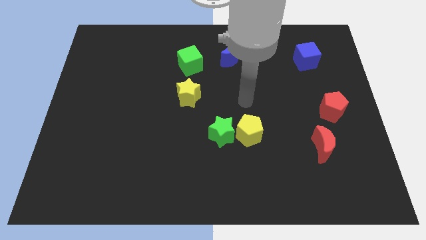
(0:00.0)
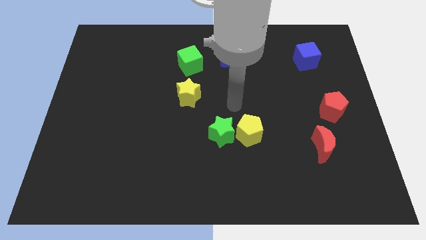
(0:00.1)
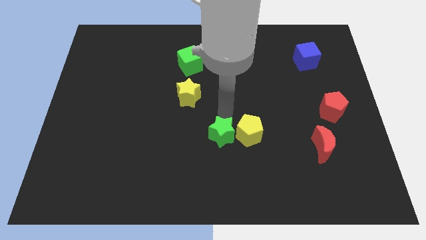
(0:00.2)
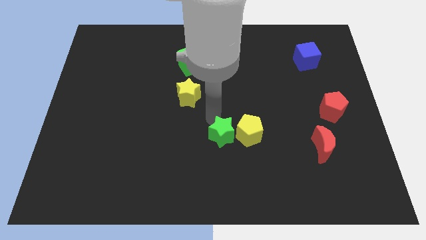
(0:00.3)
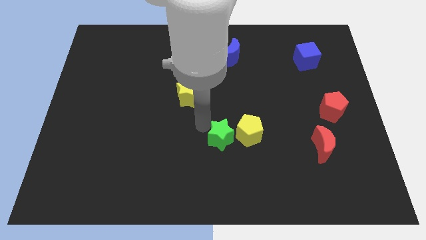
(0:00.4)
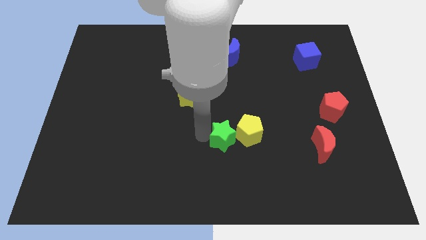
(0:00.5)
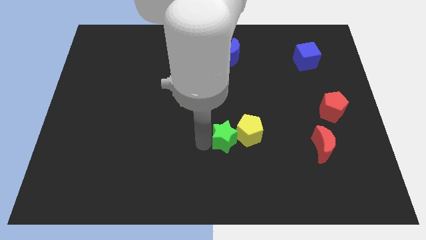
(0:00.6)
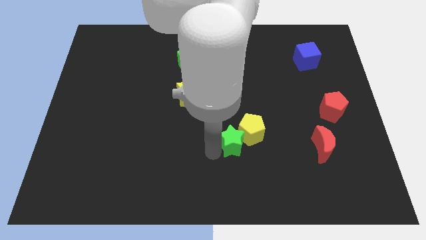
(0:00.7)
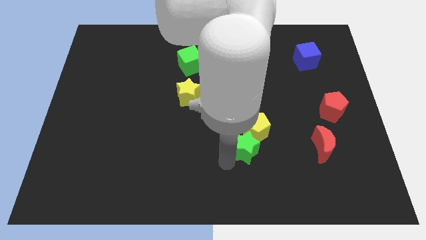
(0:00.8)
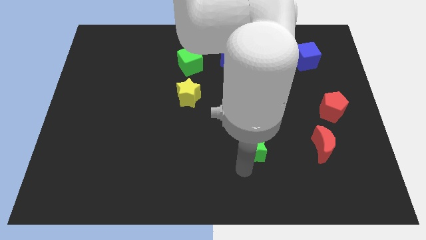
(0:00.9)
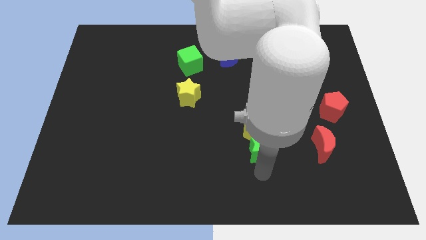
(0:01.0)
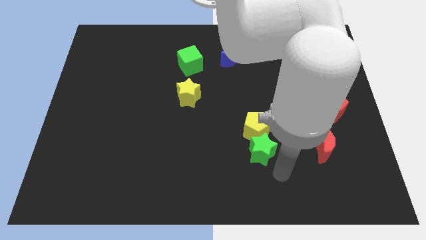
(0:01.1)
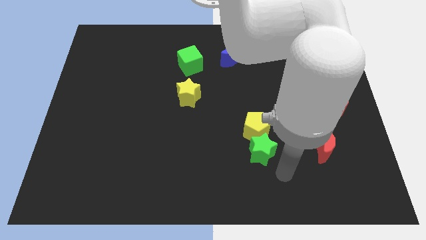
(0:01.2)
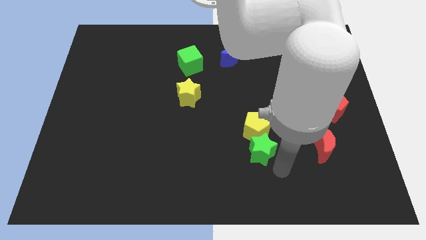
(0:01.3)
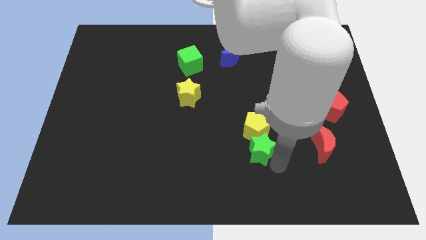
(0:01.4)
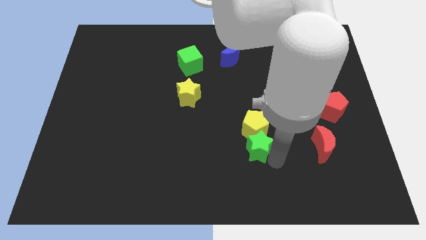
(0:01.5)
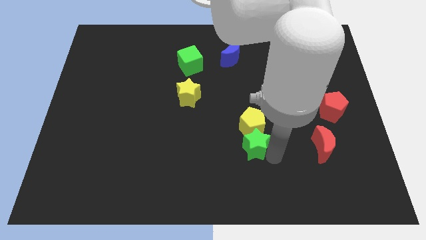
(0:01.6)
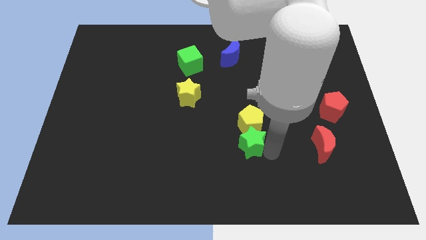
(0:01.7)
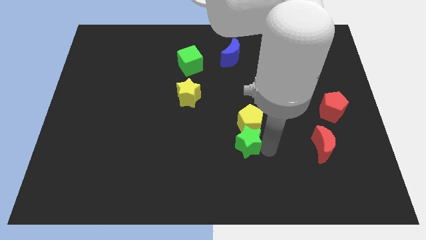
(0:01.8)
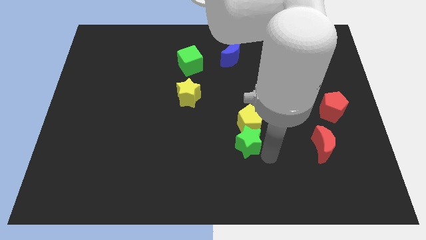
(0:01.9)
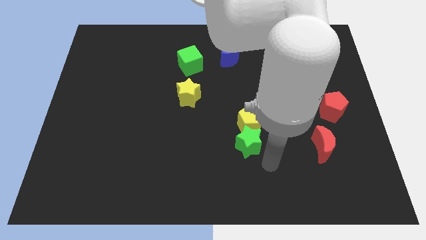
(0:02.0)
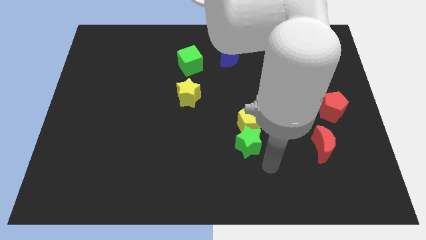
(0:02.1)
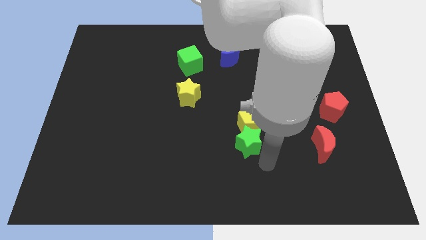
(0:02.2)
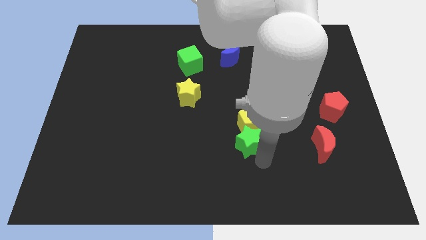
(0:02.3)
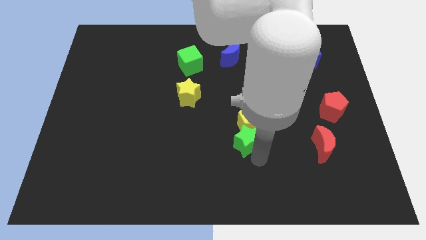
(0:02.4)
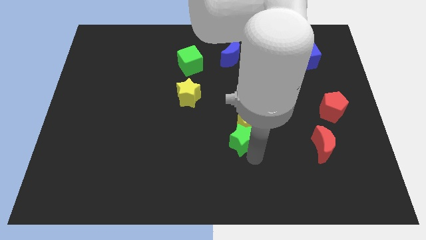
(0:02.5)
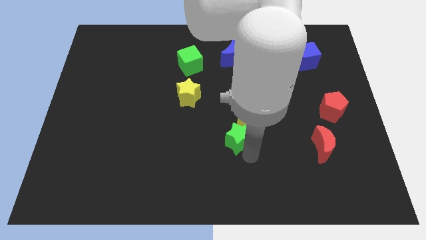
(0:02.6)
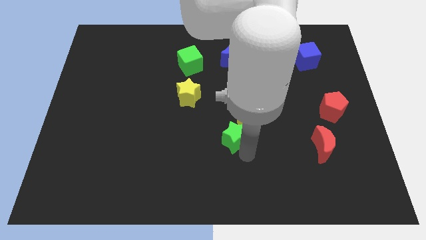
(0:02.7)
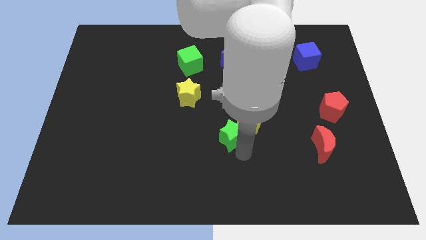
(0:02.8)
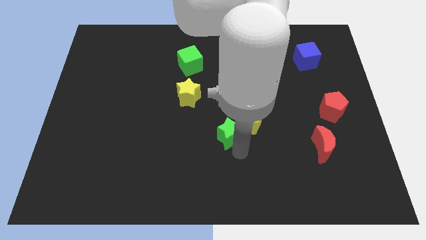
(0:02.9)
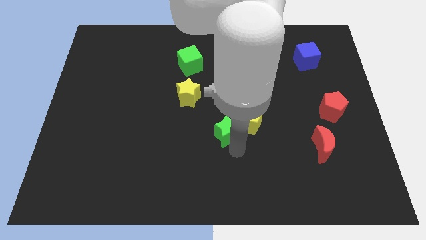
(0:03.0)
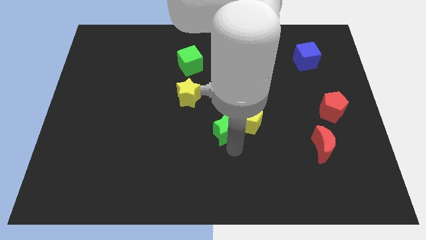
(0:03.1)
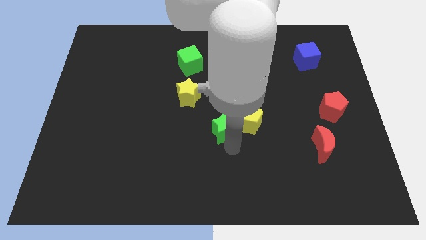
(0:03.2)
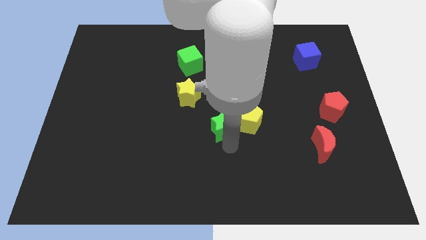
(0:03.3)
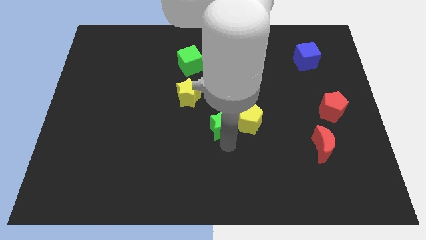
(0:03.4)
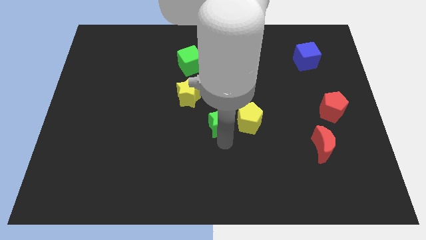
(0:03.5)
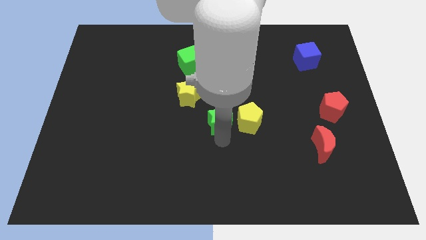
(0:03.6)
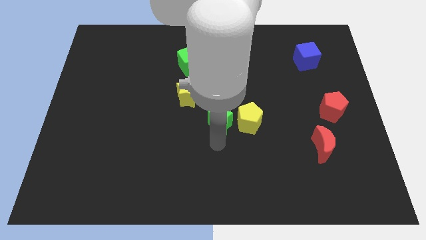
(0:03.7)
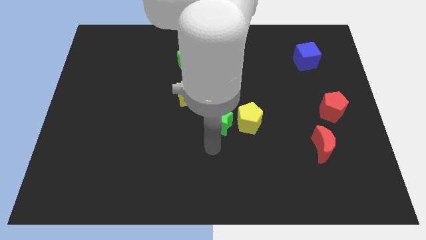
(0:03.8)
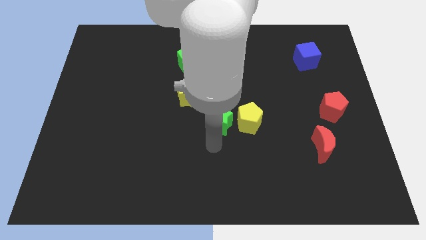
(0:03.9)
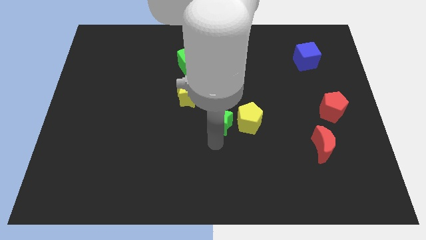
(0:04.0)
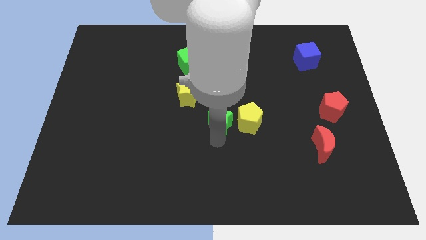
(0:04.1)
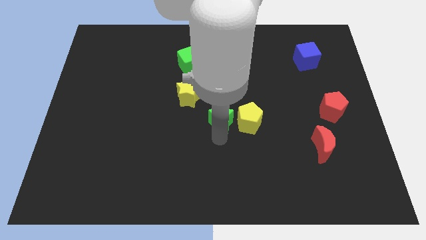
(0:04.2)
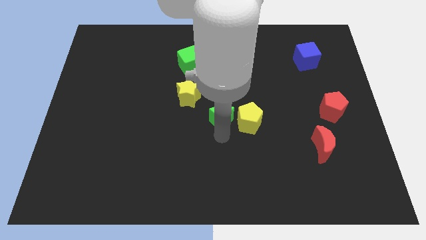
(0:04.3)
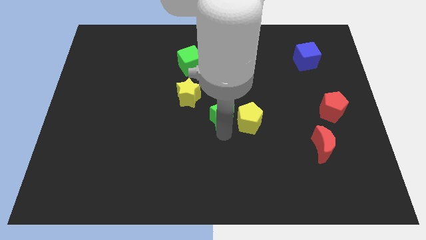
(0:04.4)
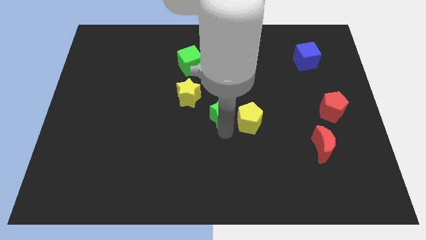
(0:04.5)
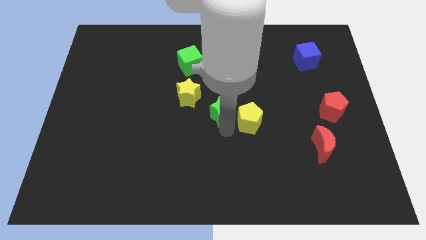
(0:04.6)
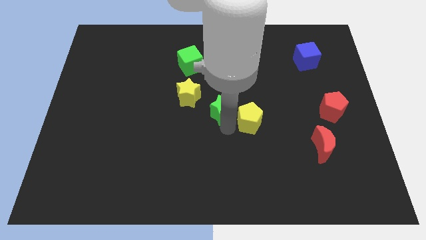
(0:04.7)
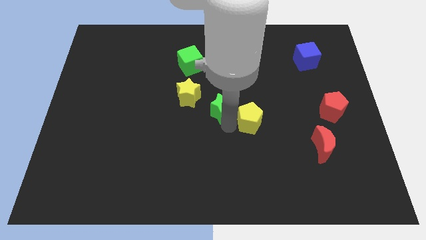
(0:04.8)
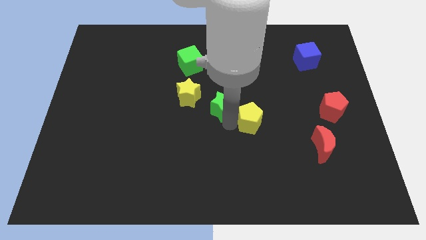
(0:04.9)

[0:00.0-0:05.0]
push the green star upwards a little bit

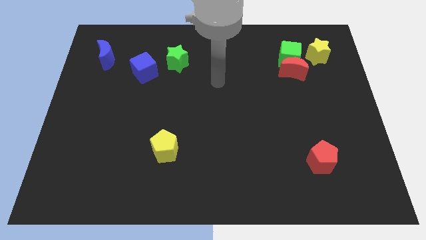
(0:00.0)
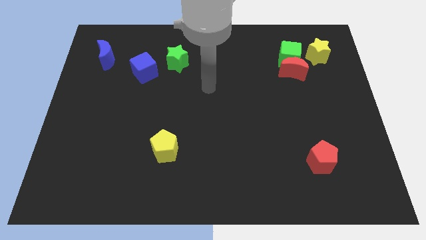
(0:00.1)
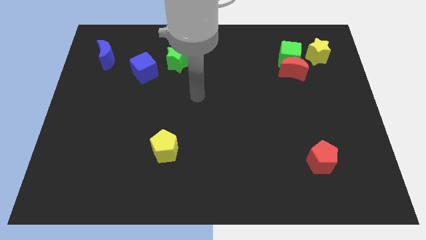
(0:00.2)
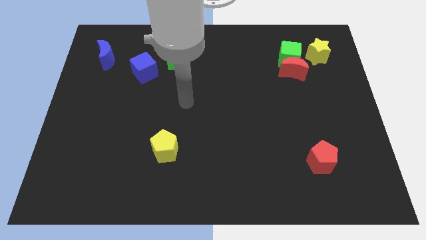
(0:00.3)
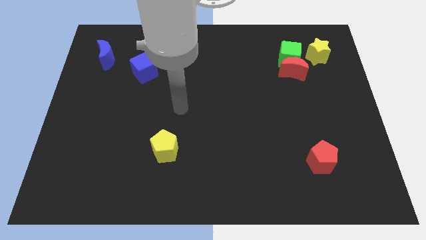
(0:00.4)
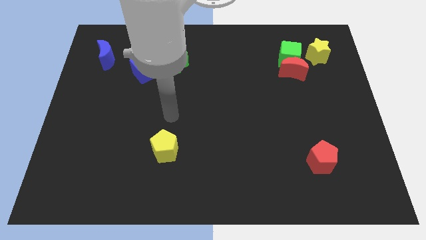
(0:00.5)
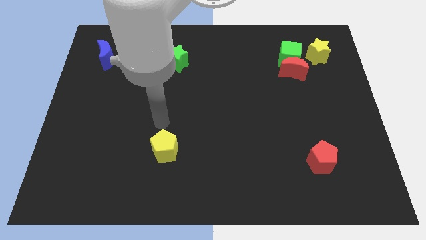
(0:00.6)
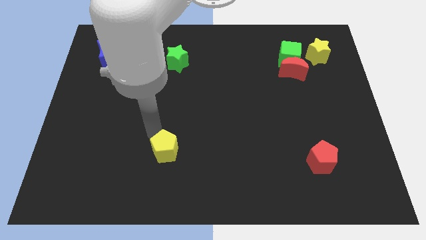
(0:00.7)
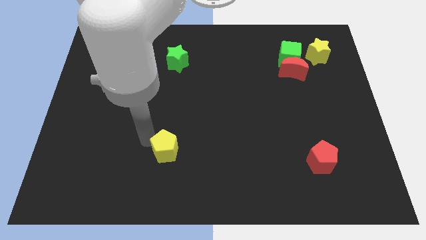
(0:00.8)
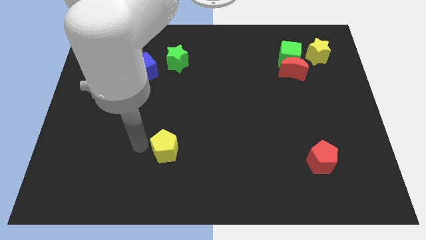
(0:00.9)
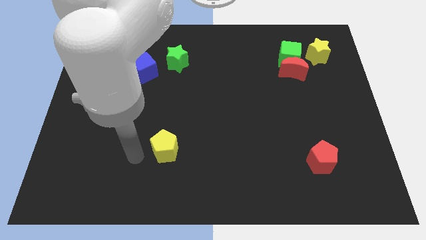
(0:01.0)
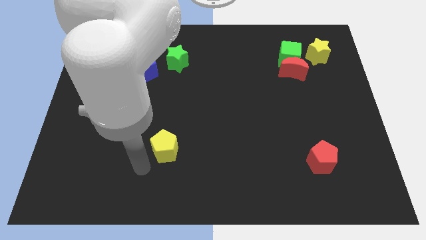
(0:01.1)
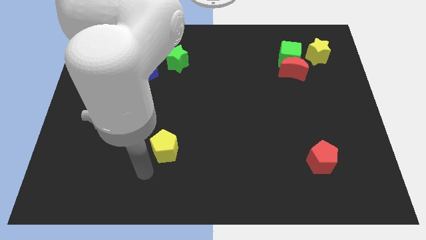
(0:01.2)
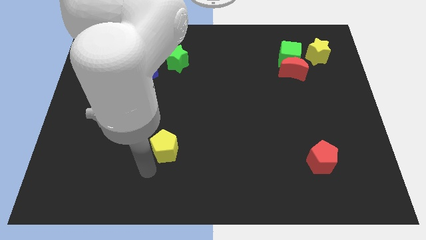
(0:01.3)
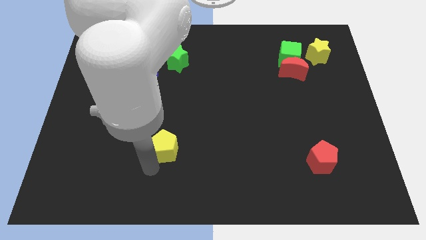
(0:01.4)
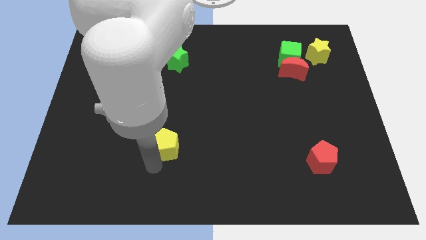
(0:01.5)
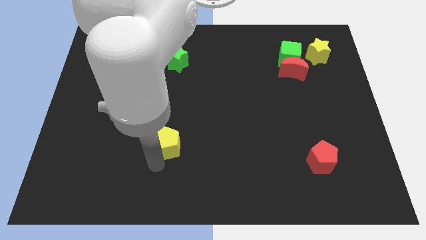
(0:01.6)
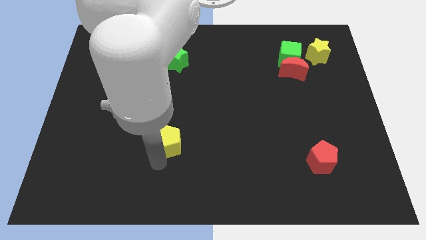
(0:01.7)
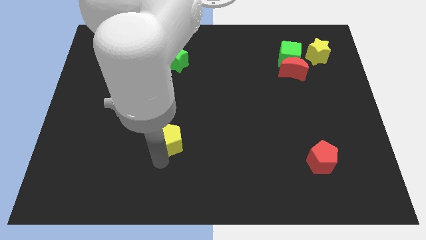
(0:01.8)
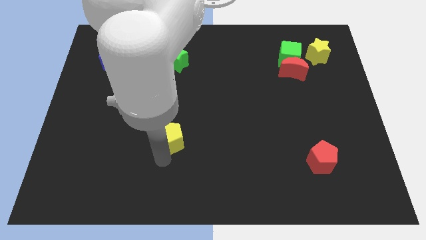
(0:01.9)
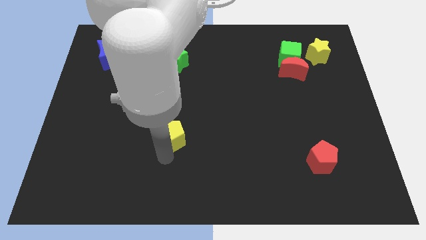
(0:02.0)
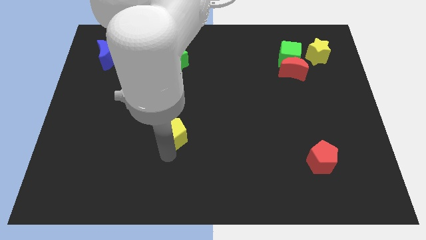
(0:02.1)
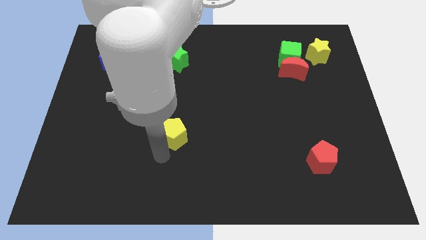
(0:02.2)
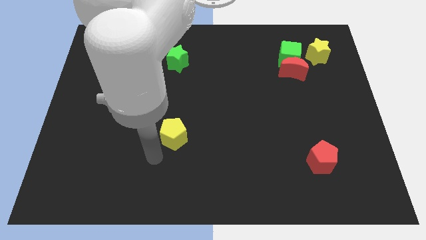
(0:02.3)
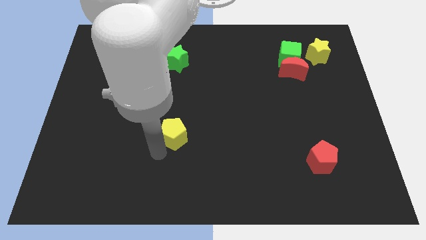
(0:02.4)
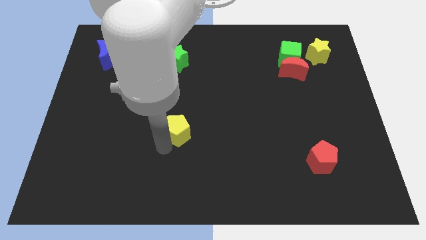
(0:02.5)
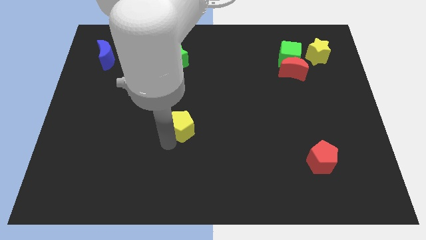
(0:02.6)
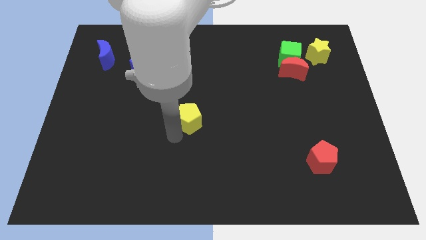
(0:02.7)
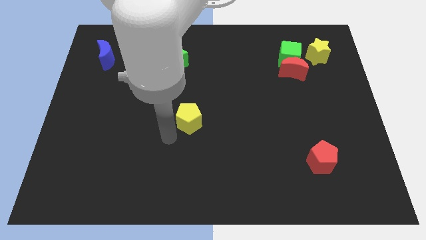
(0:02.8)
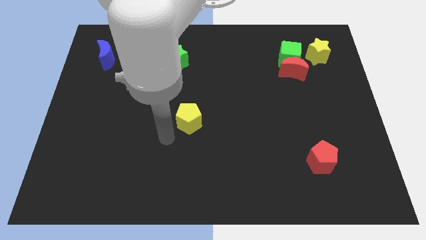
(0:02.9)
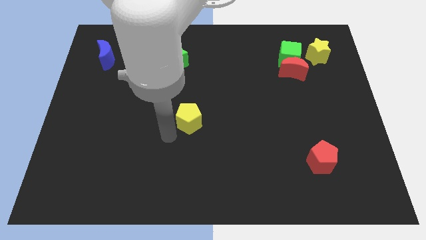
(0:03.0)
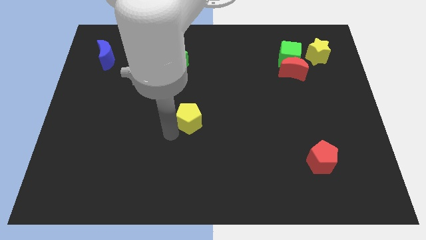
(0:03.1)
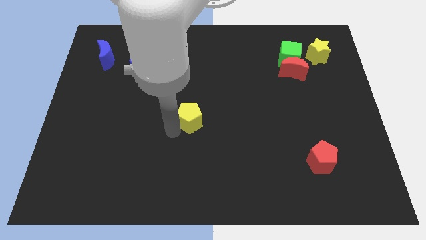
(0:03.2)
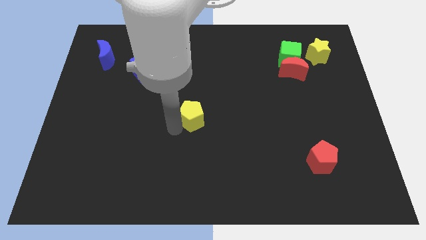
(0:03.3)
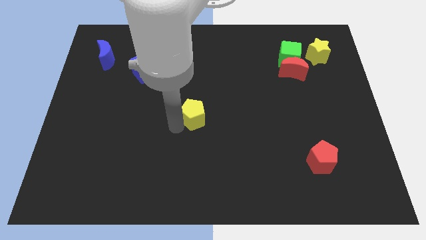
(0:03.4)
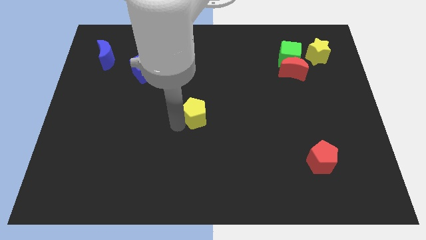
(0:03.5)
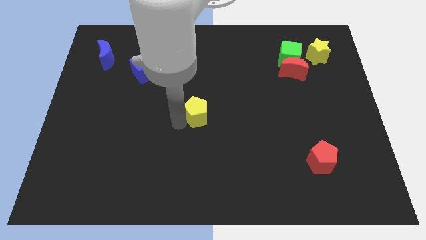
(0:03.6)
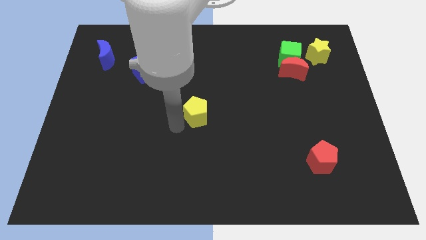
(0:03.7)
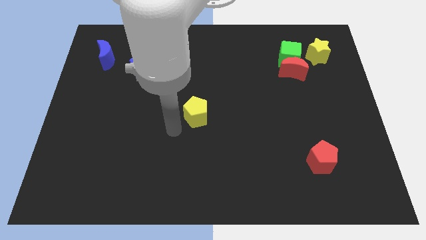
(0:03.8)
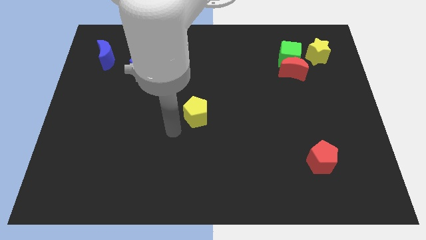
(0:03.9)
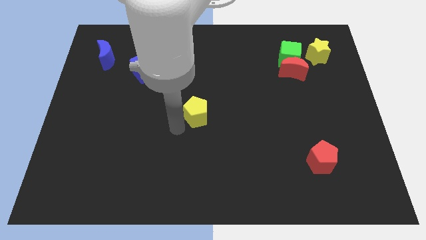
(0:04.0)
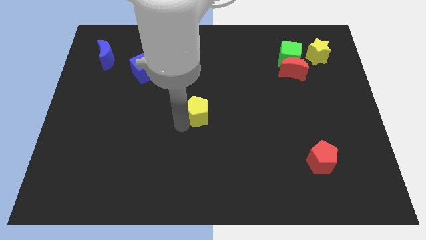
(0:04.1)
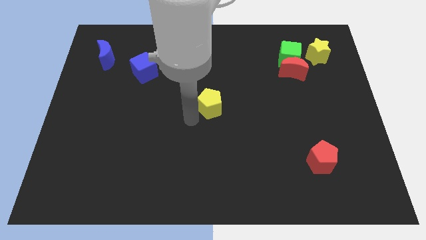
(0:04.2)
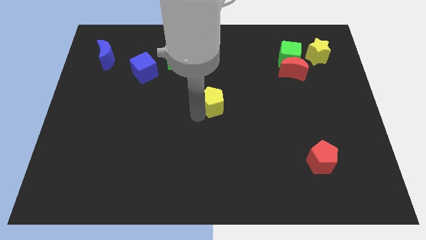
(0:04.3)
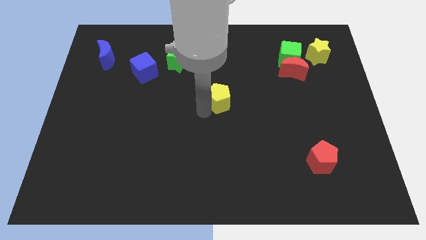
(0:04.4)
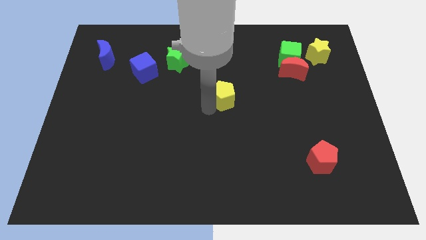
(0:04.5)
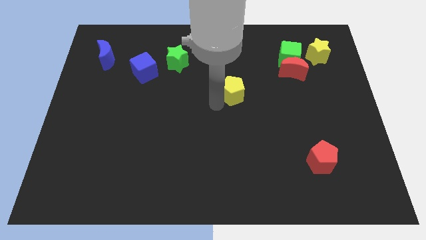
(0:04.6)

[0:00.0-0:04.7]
slide the yellow pentagon diagonally upwards and to the right
